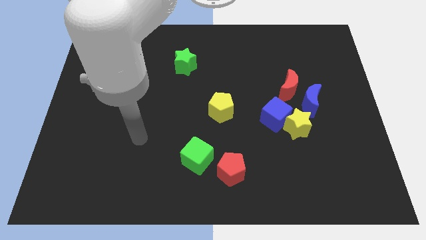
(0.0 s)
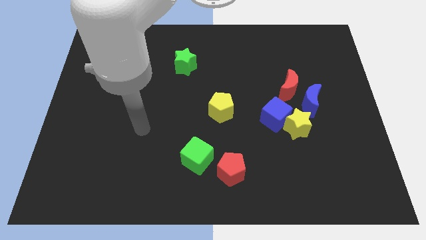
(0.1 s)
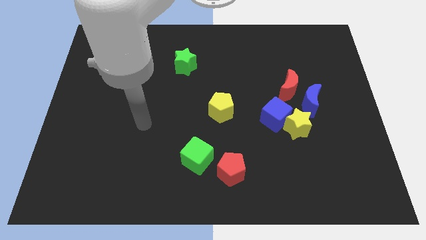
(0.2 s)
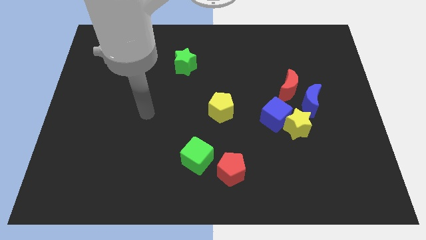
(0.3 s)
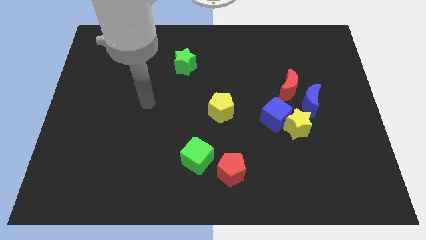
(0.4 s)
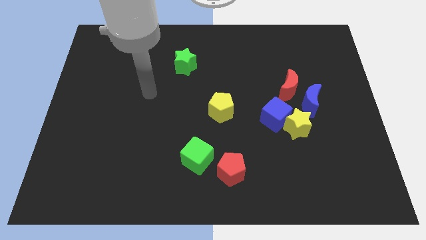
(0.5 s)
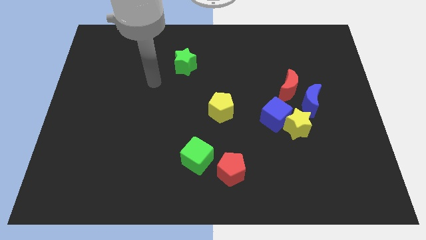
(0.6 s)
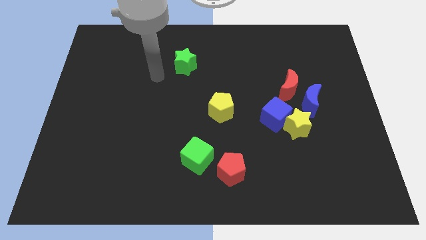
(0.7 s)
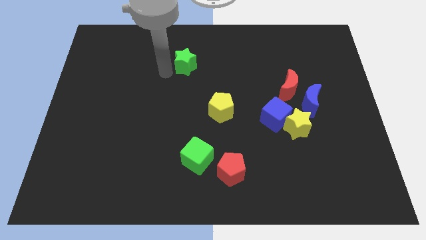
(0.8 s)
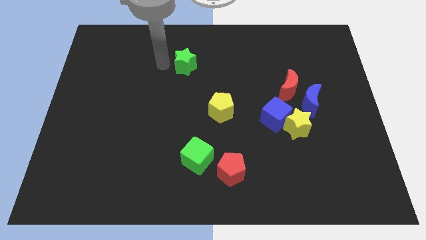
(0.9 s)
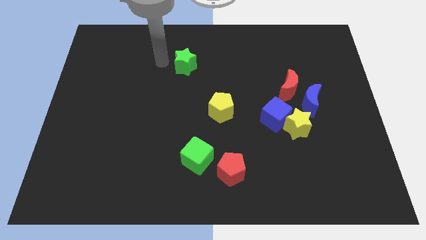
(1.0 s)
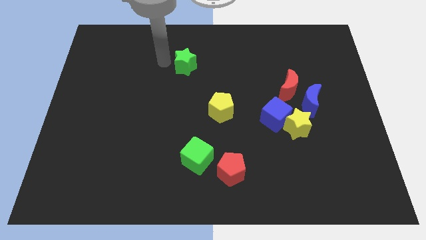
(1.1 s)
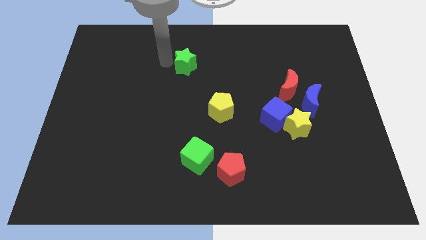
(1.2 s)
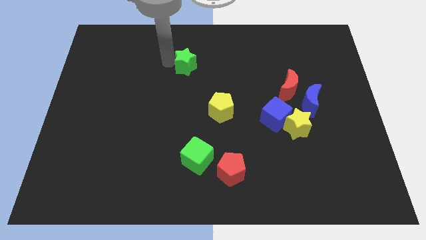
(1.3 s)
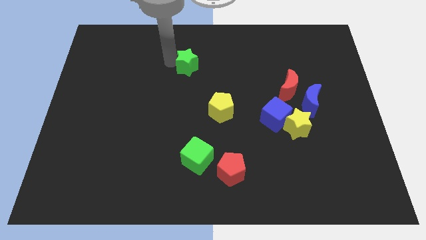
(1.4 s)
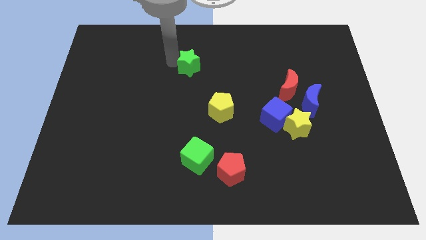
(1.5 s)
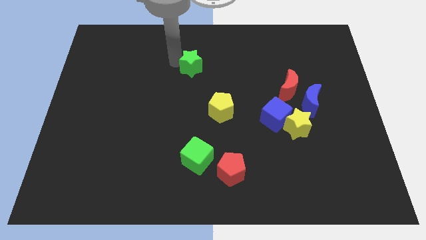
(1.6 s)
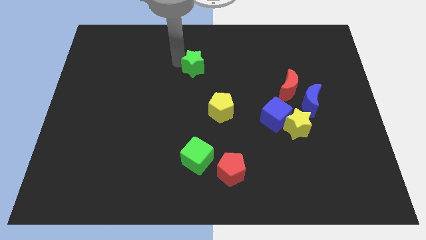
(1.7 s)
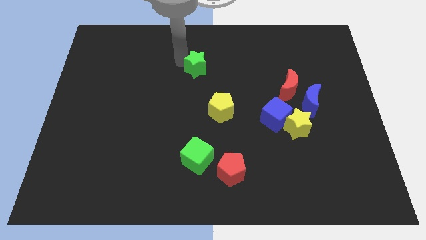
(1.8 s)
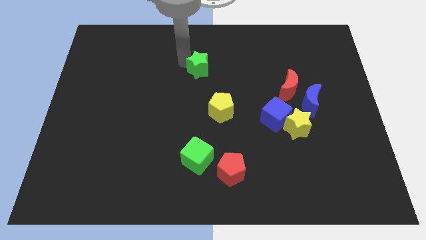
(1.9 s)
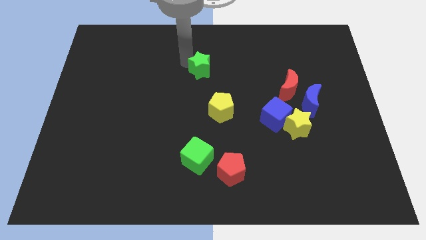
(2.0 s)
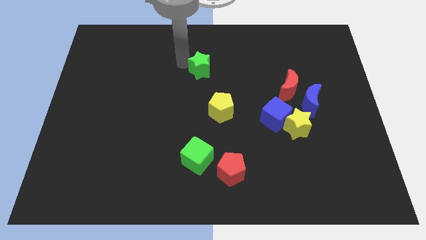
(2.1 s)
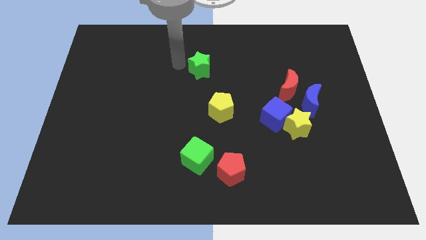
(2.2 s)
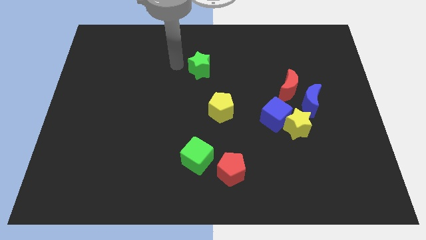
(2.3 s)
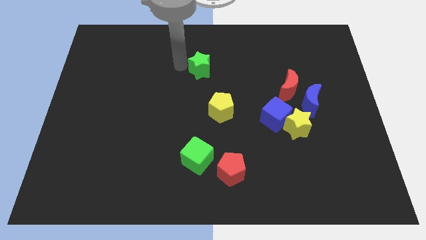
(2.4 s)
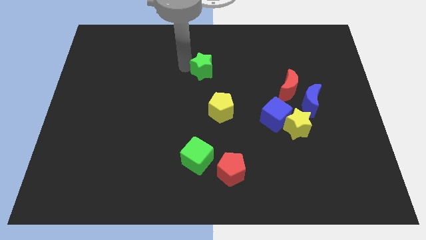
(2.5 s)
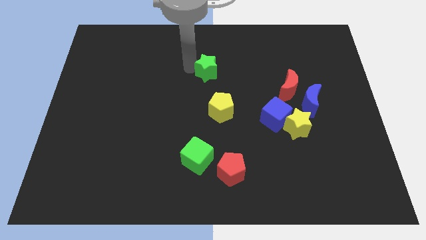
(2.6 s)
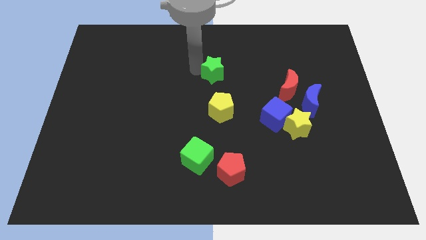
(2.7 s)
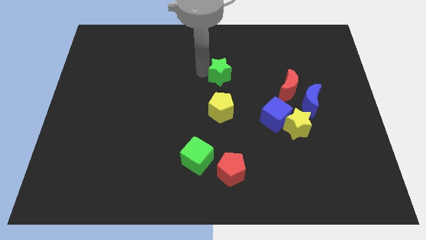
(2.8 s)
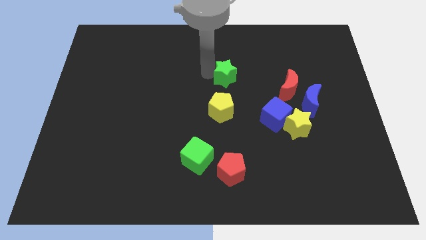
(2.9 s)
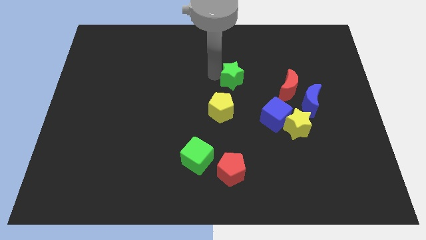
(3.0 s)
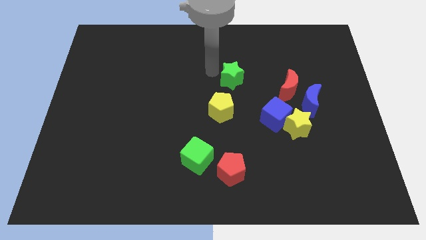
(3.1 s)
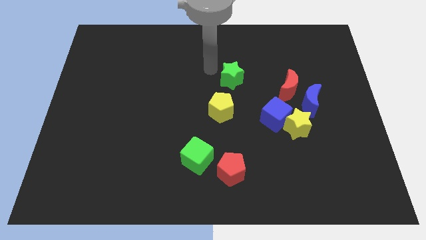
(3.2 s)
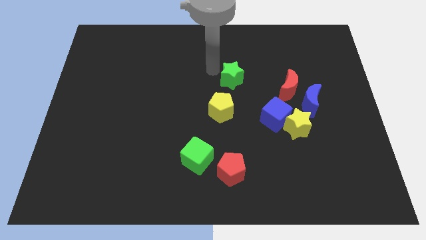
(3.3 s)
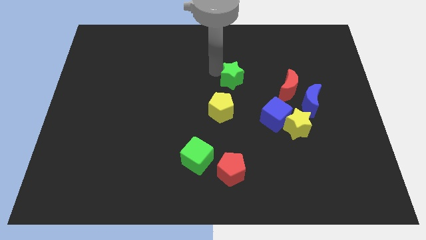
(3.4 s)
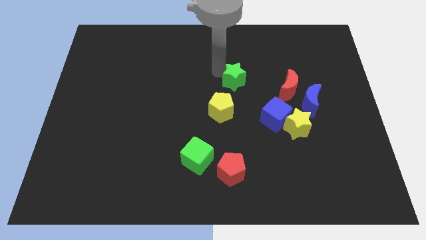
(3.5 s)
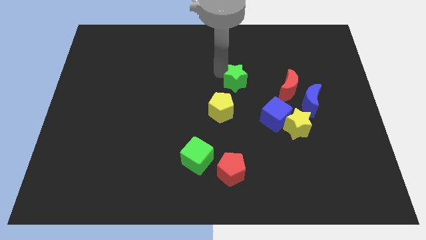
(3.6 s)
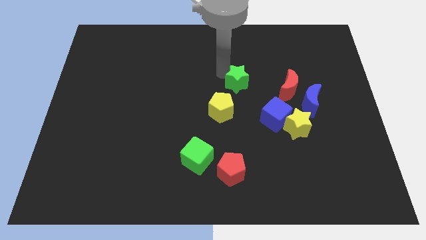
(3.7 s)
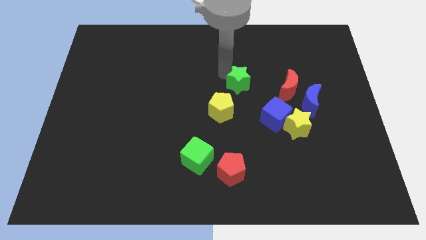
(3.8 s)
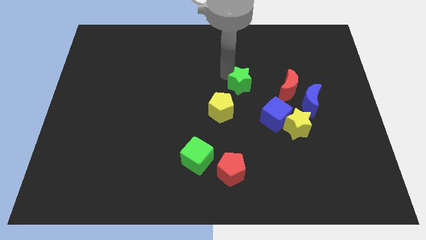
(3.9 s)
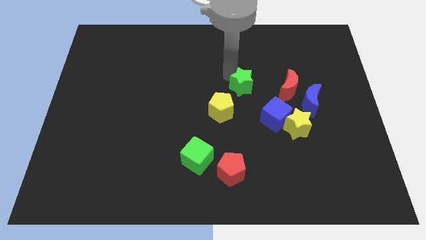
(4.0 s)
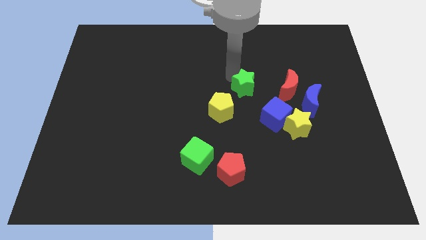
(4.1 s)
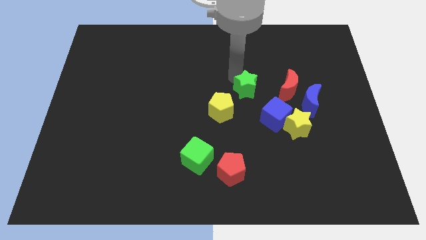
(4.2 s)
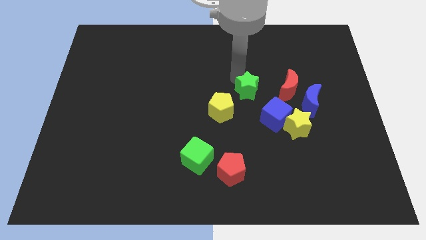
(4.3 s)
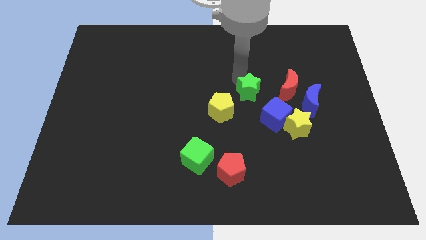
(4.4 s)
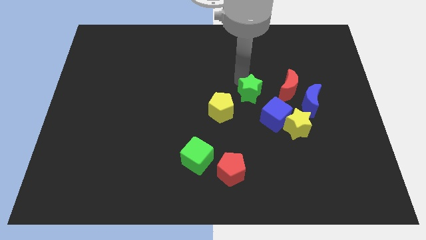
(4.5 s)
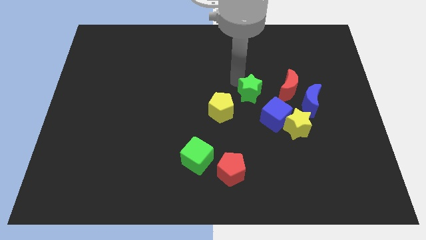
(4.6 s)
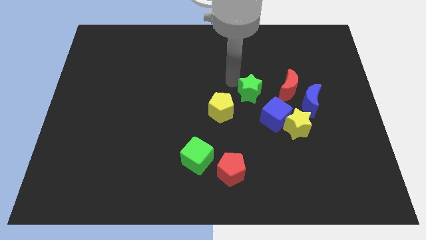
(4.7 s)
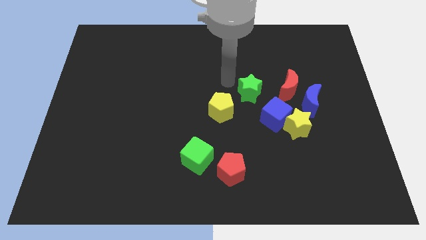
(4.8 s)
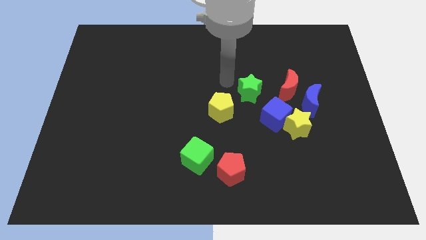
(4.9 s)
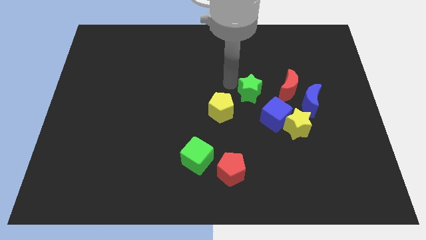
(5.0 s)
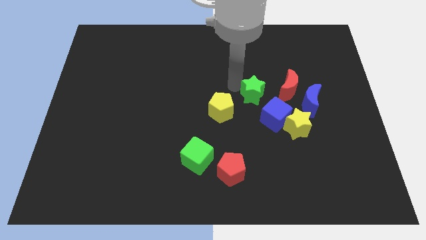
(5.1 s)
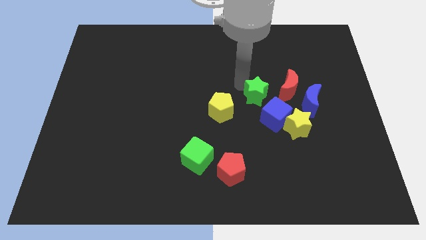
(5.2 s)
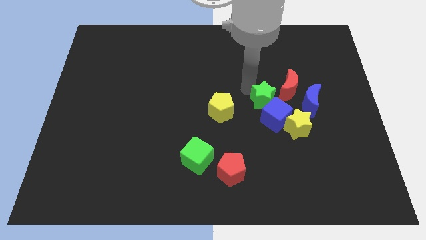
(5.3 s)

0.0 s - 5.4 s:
push the green star close to the blue cube

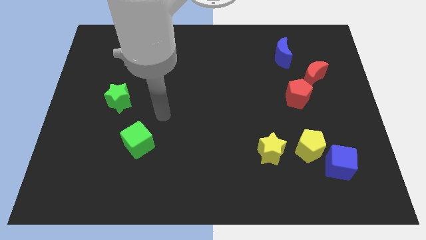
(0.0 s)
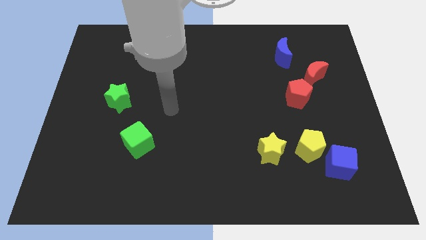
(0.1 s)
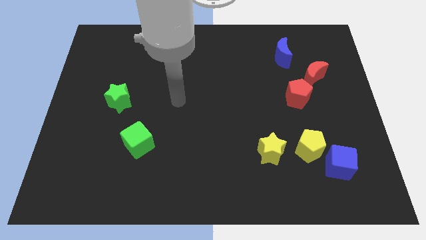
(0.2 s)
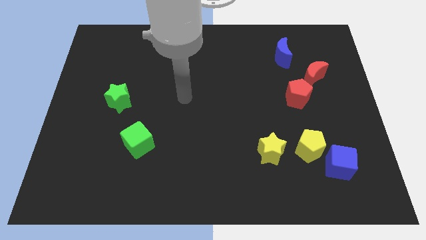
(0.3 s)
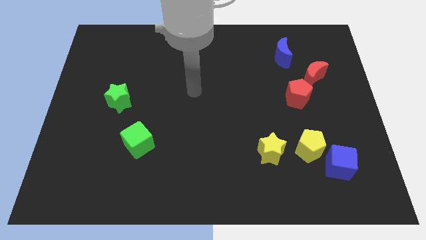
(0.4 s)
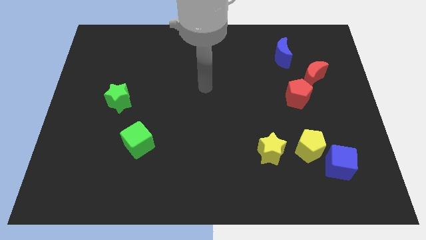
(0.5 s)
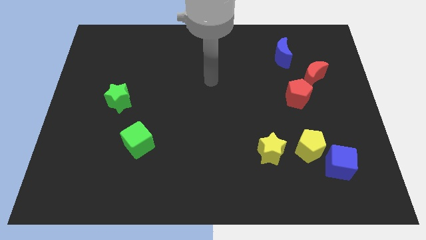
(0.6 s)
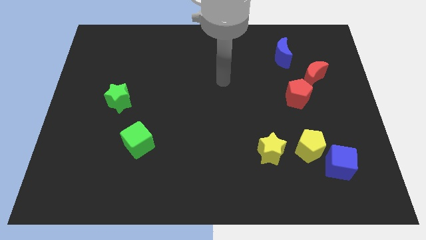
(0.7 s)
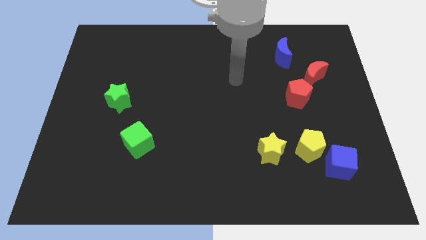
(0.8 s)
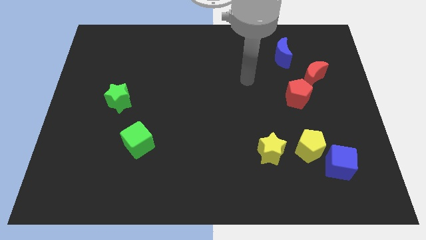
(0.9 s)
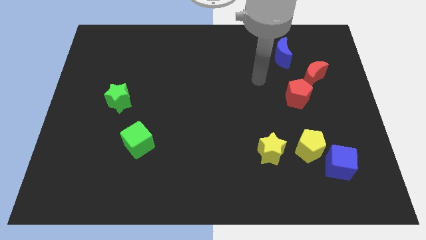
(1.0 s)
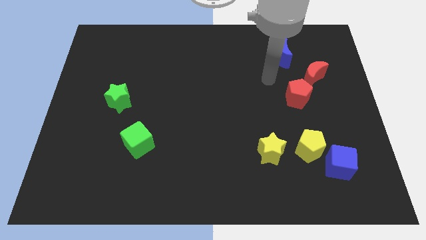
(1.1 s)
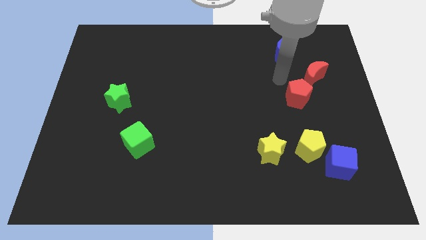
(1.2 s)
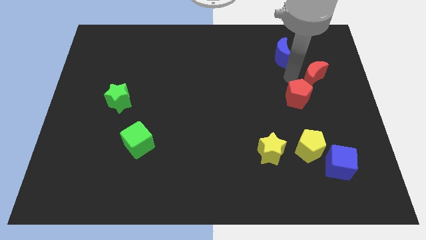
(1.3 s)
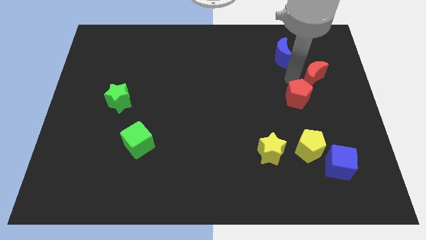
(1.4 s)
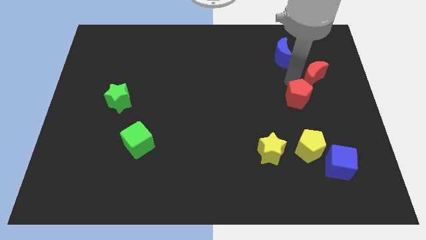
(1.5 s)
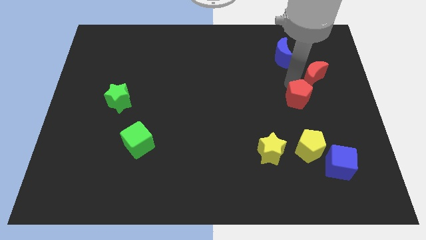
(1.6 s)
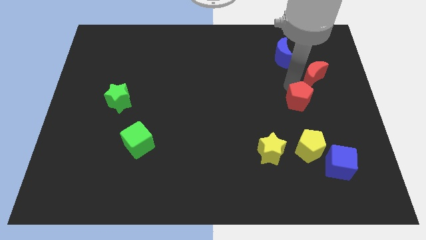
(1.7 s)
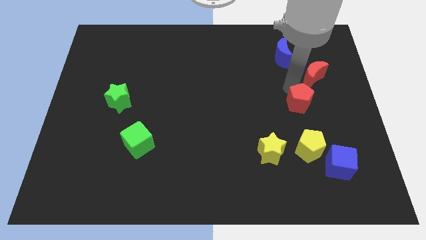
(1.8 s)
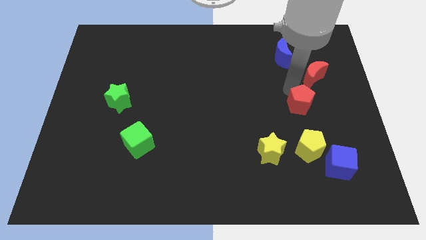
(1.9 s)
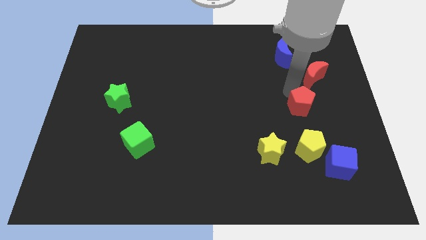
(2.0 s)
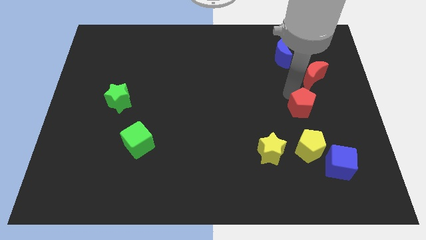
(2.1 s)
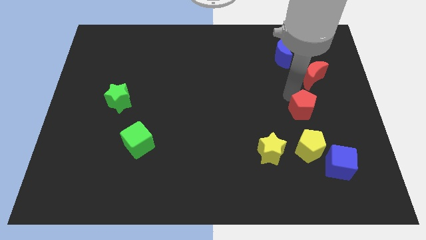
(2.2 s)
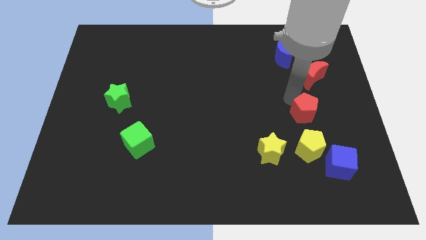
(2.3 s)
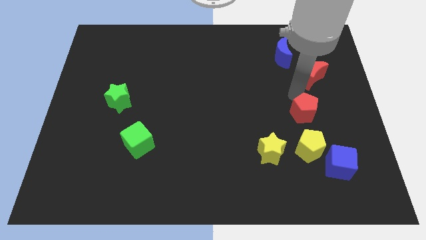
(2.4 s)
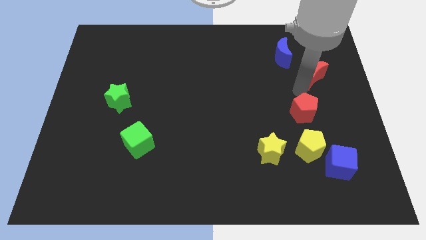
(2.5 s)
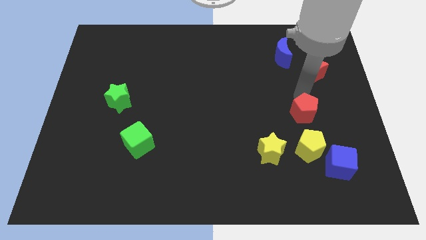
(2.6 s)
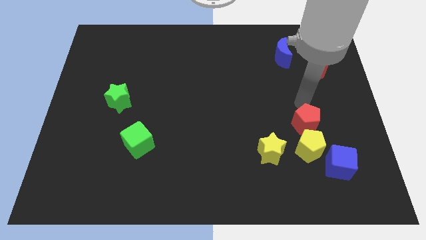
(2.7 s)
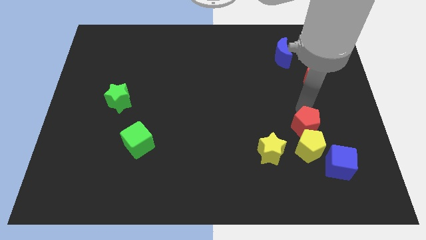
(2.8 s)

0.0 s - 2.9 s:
put the red pentagon to the yellow pentagon
